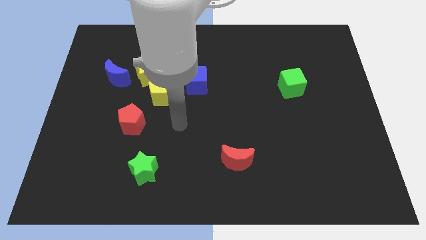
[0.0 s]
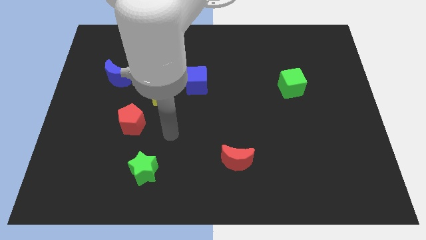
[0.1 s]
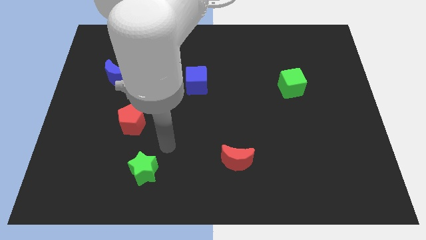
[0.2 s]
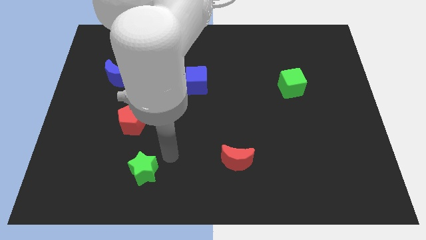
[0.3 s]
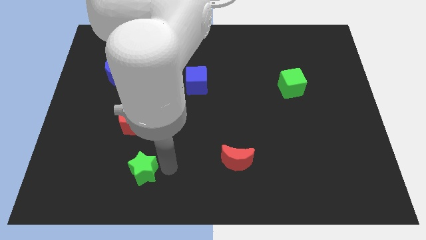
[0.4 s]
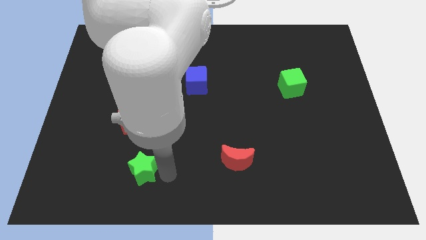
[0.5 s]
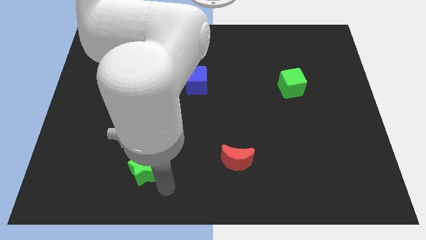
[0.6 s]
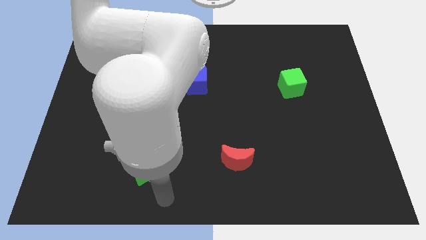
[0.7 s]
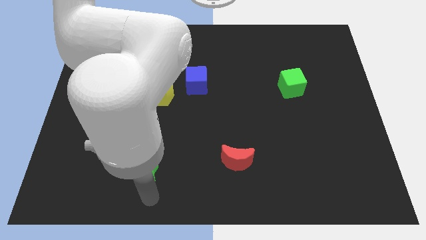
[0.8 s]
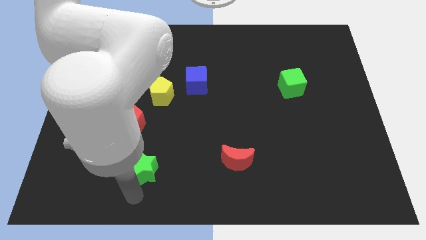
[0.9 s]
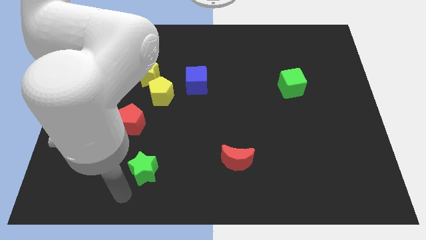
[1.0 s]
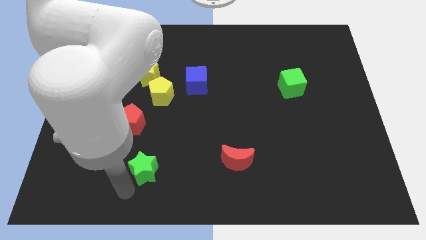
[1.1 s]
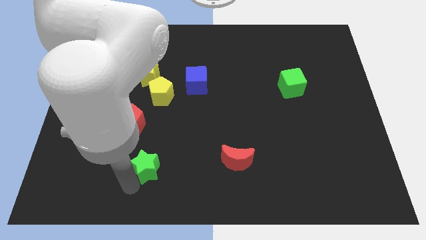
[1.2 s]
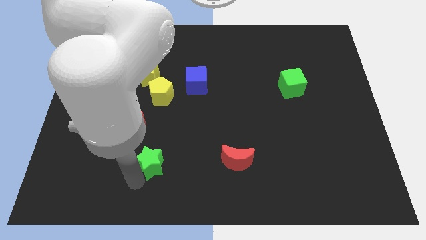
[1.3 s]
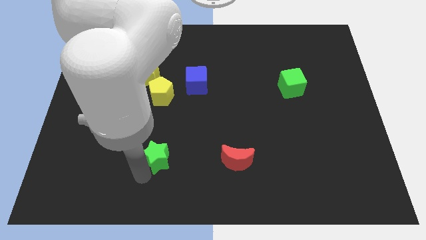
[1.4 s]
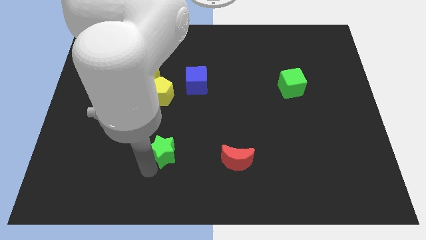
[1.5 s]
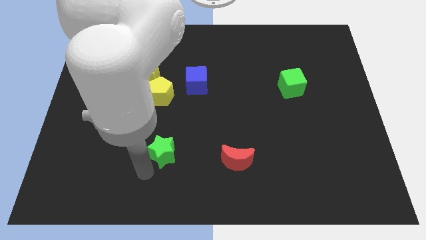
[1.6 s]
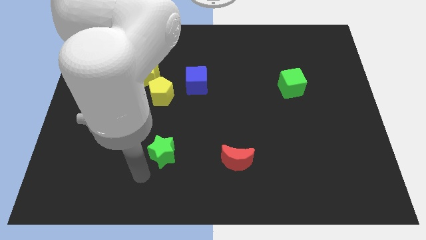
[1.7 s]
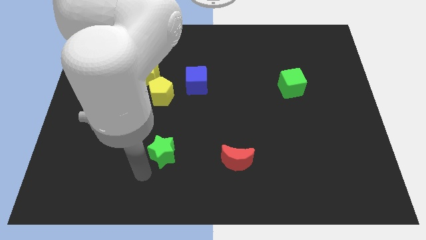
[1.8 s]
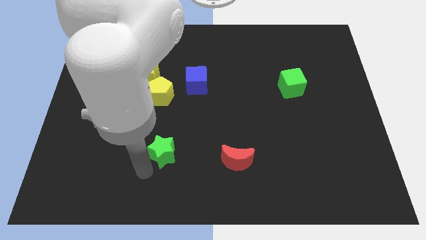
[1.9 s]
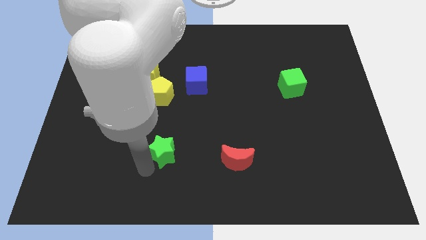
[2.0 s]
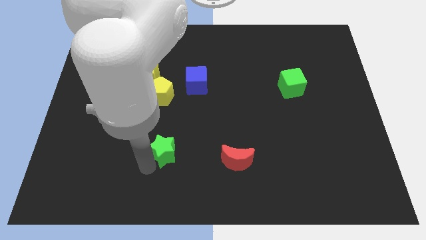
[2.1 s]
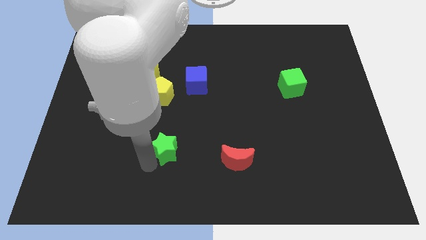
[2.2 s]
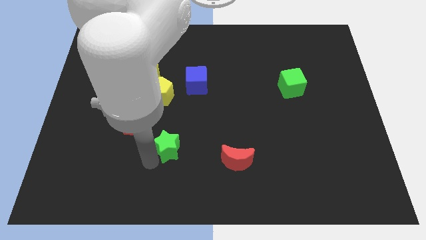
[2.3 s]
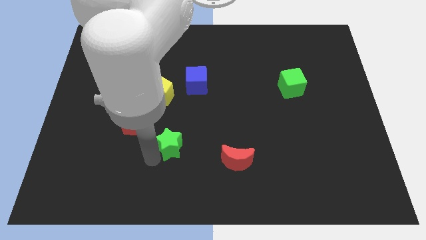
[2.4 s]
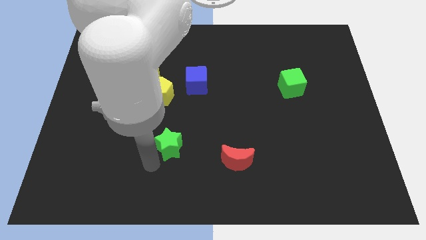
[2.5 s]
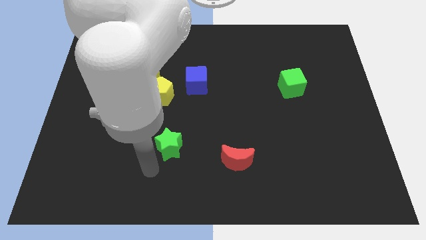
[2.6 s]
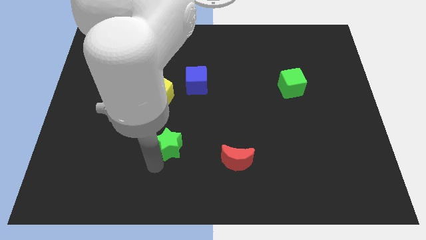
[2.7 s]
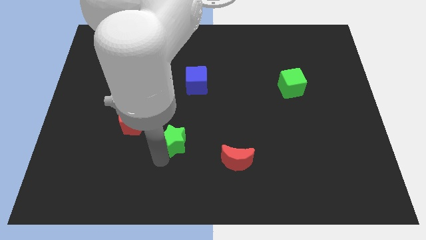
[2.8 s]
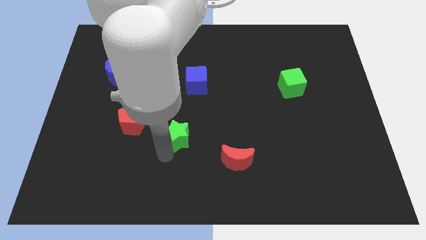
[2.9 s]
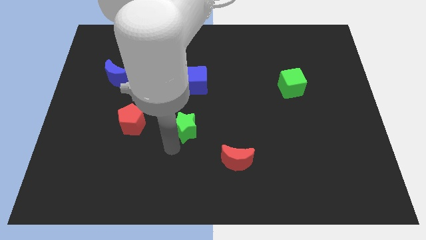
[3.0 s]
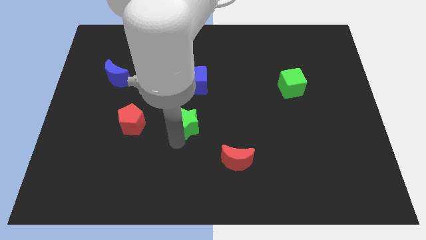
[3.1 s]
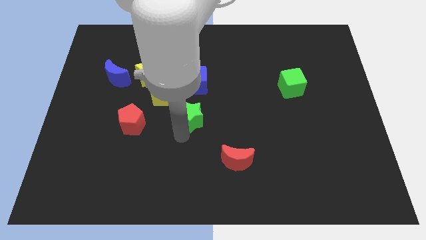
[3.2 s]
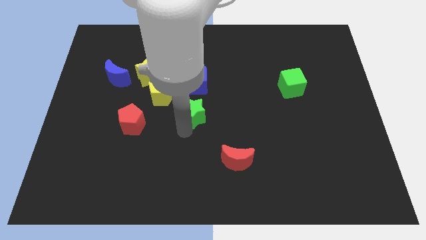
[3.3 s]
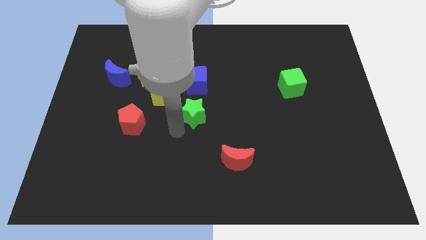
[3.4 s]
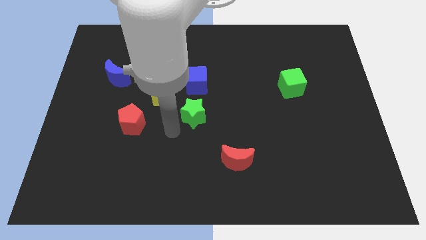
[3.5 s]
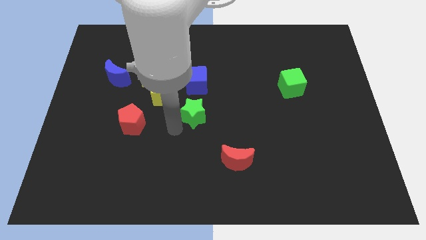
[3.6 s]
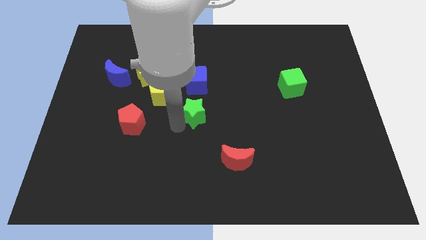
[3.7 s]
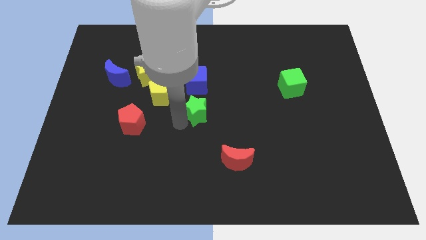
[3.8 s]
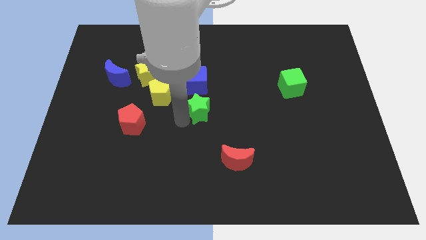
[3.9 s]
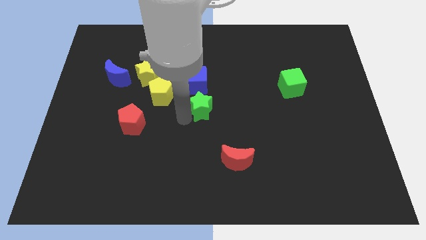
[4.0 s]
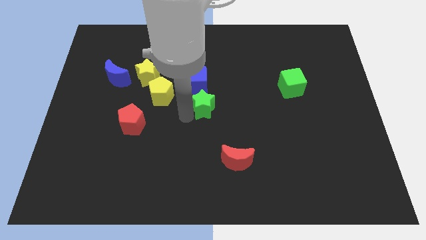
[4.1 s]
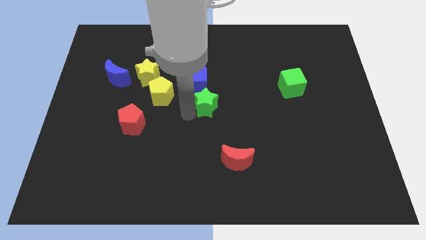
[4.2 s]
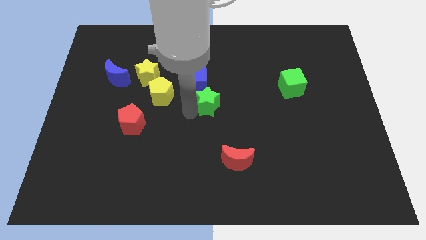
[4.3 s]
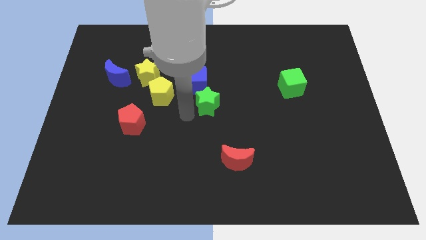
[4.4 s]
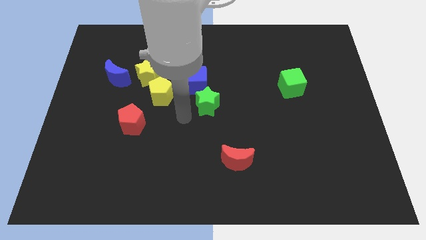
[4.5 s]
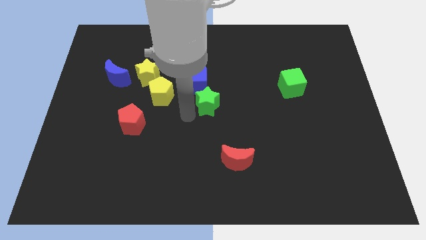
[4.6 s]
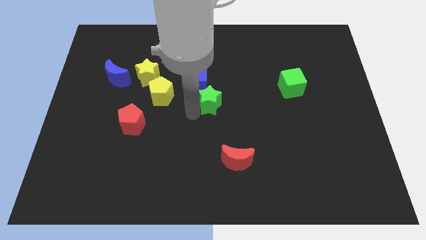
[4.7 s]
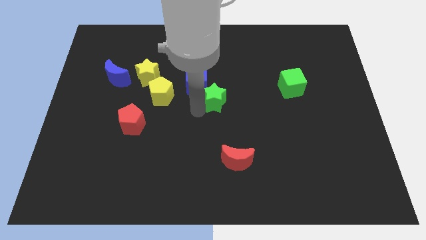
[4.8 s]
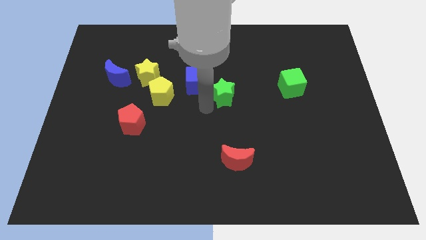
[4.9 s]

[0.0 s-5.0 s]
slide the green star just right of the blue cube

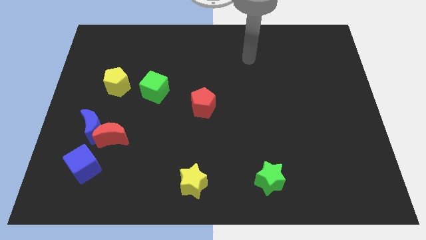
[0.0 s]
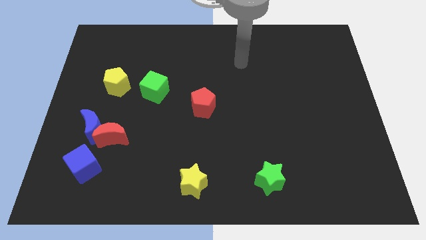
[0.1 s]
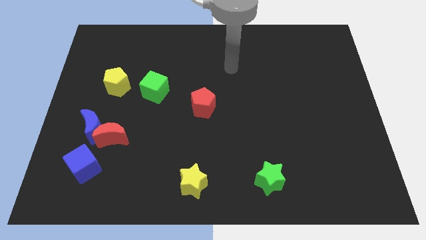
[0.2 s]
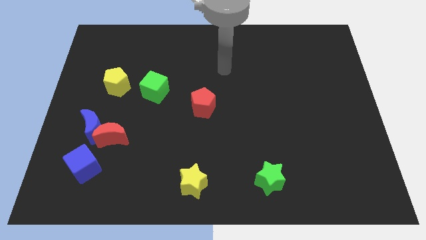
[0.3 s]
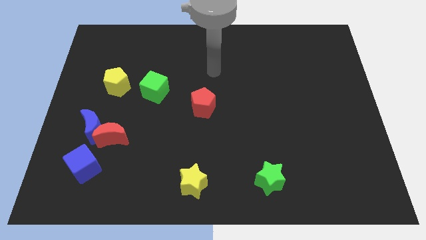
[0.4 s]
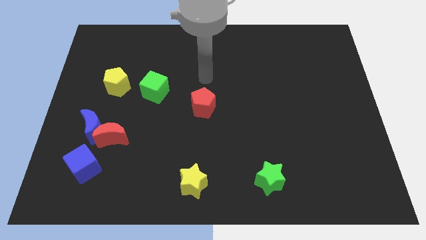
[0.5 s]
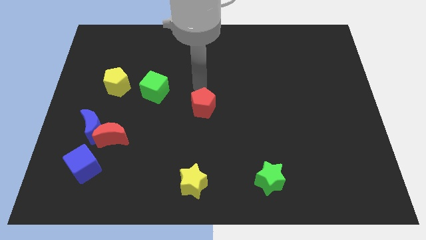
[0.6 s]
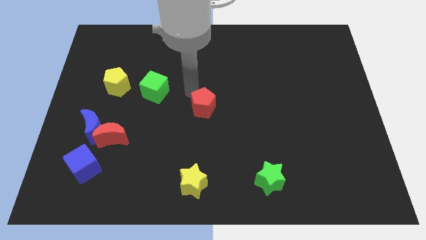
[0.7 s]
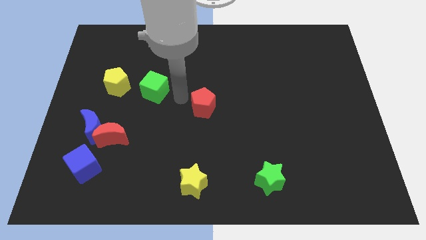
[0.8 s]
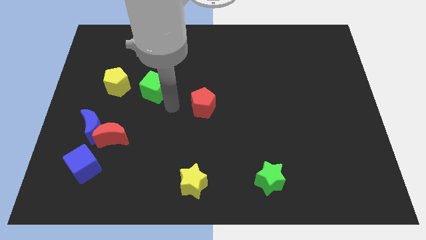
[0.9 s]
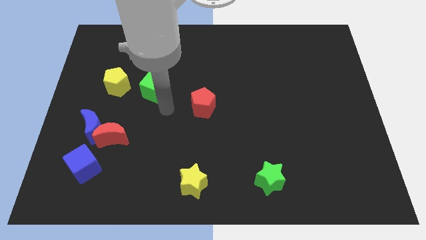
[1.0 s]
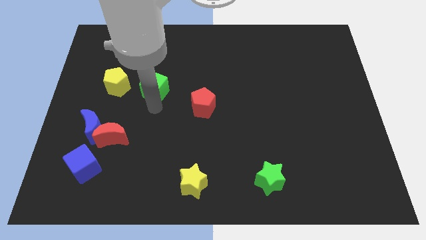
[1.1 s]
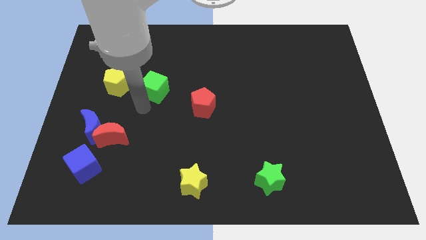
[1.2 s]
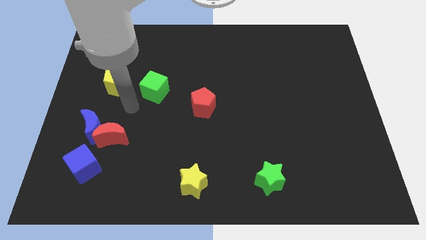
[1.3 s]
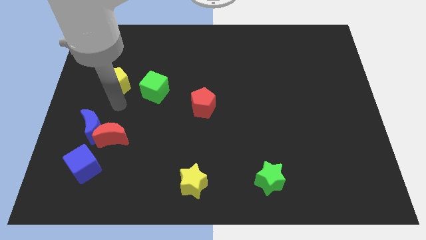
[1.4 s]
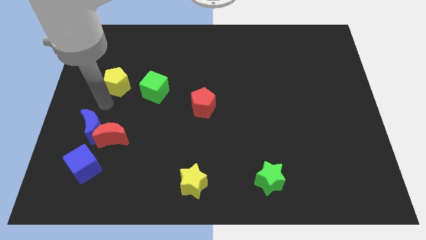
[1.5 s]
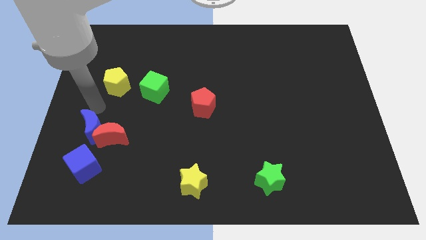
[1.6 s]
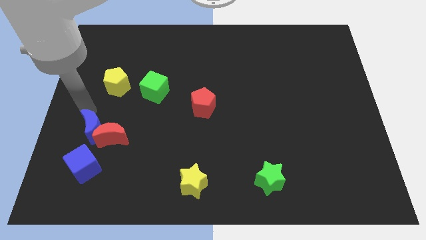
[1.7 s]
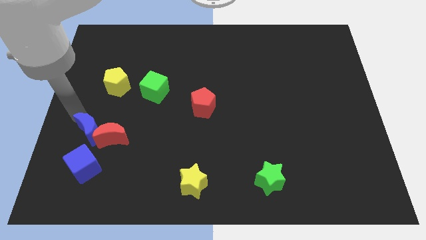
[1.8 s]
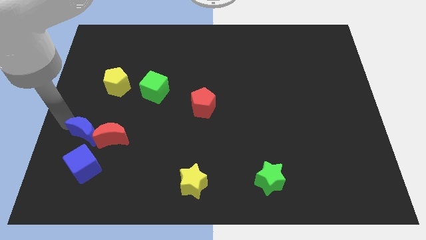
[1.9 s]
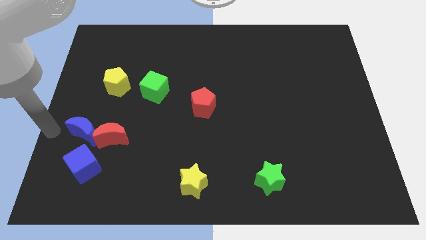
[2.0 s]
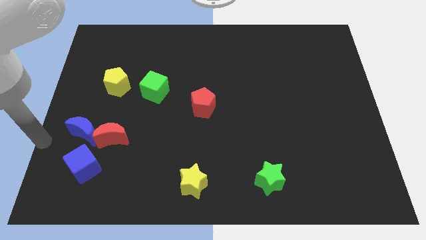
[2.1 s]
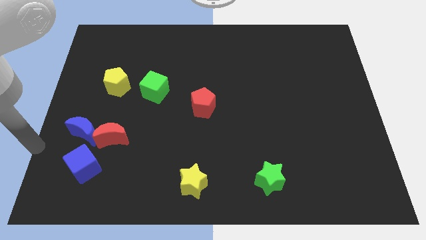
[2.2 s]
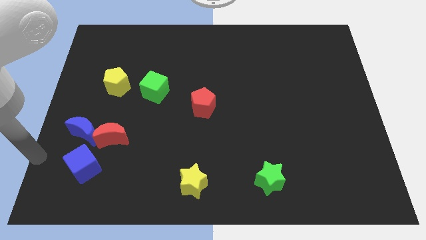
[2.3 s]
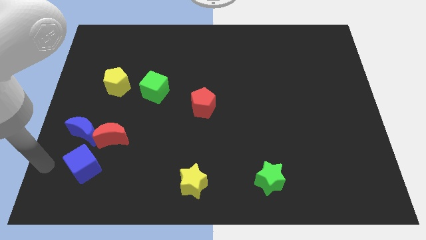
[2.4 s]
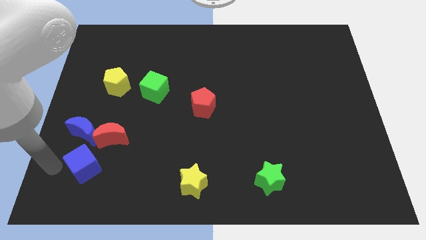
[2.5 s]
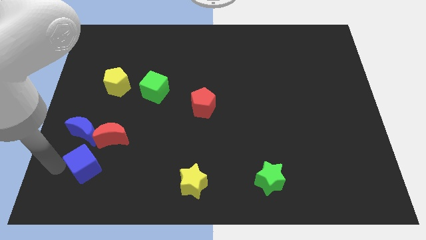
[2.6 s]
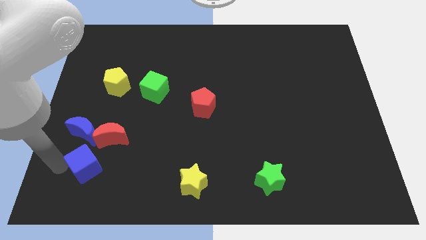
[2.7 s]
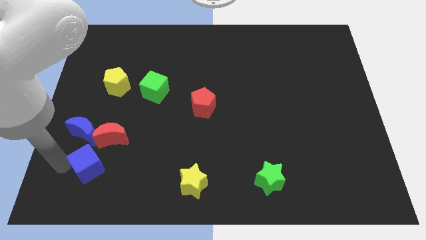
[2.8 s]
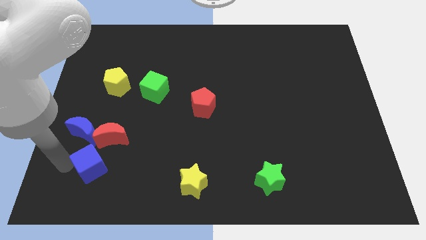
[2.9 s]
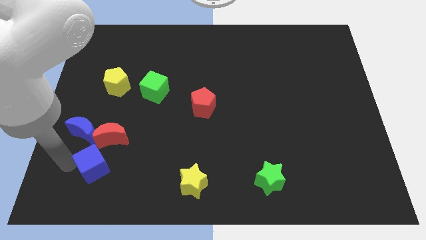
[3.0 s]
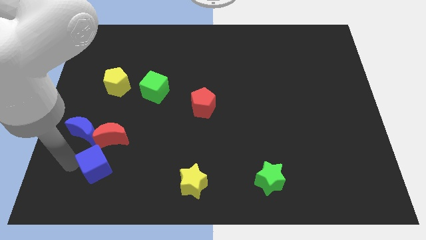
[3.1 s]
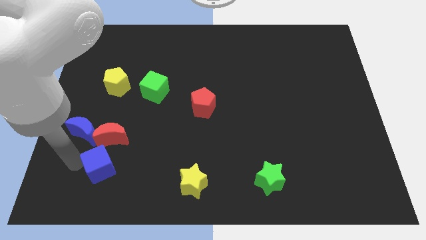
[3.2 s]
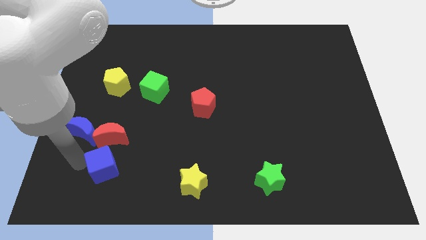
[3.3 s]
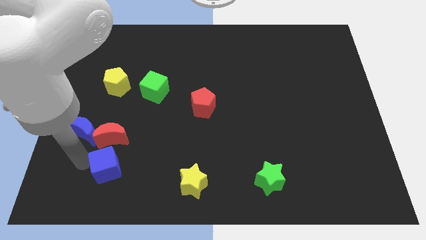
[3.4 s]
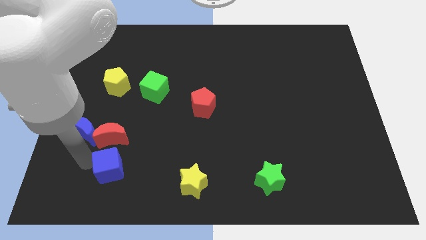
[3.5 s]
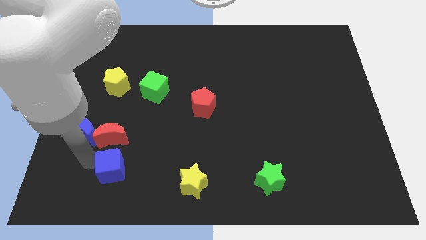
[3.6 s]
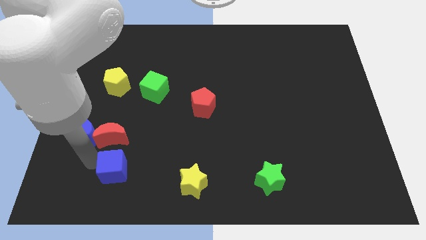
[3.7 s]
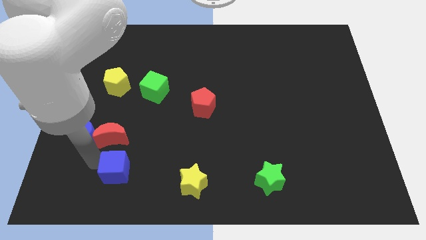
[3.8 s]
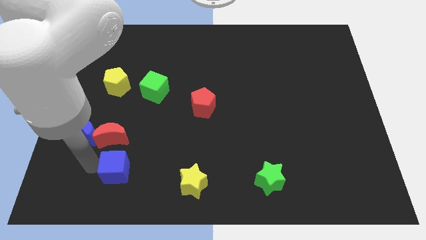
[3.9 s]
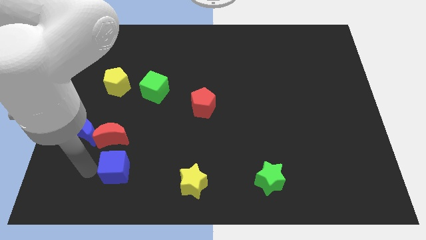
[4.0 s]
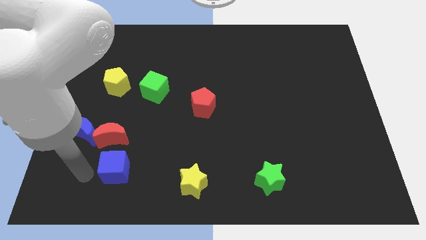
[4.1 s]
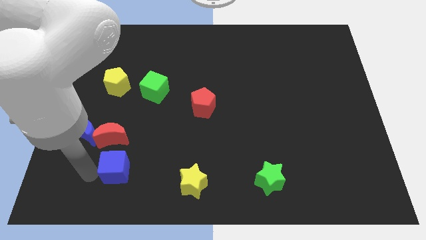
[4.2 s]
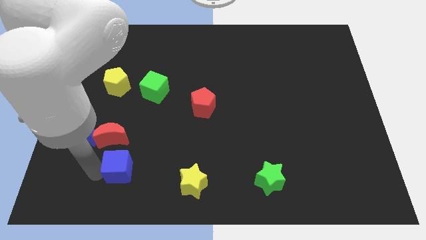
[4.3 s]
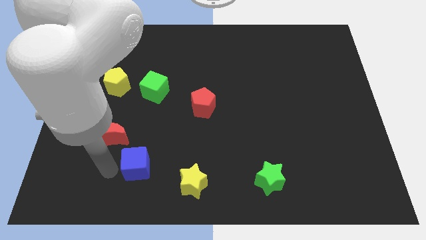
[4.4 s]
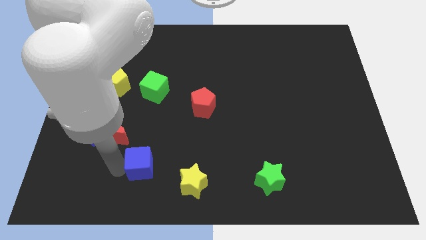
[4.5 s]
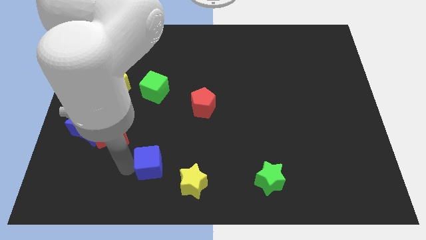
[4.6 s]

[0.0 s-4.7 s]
push the blue cube diagonally up and to the left of the yellow star
